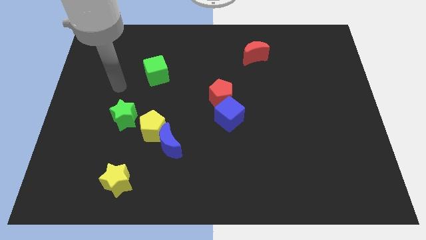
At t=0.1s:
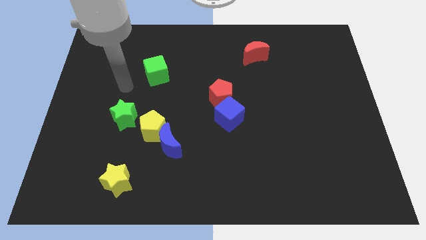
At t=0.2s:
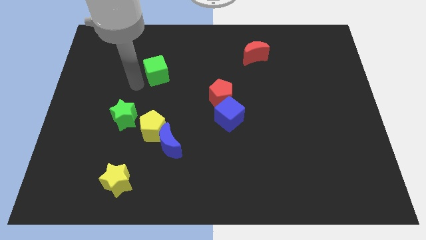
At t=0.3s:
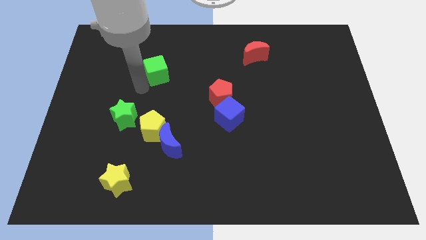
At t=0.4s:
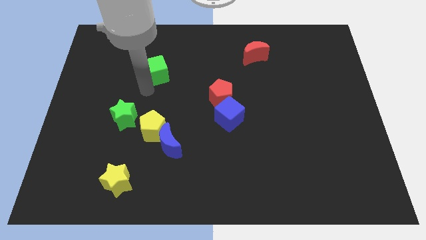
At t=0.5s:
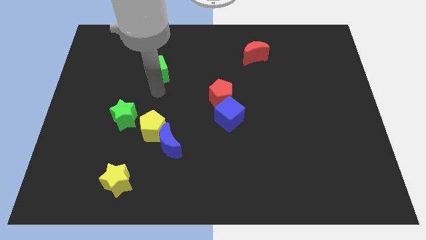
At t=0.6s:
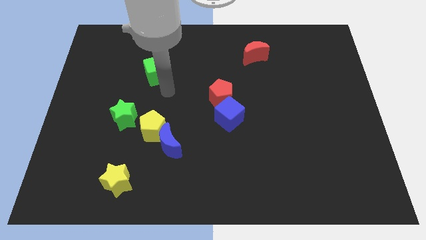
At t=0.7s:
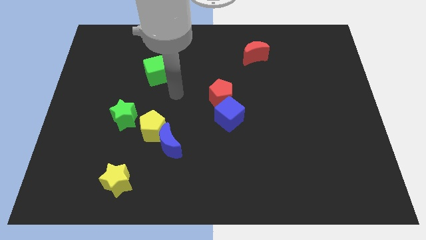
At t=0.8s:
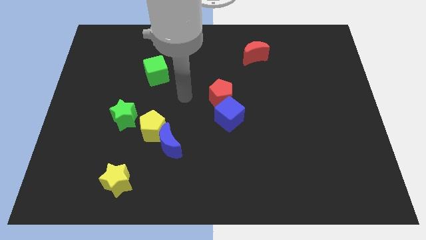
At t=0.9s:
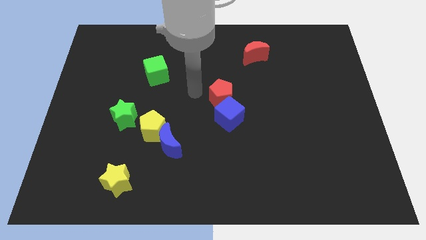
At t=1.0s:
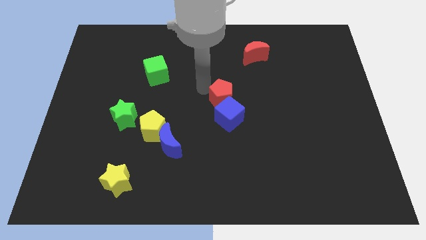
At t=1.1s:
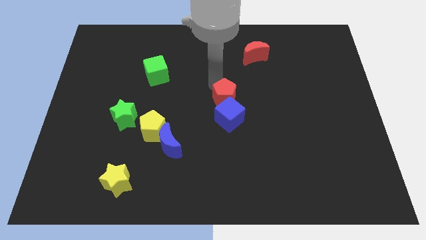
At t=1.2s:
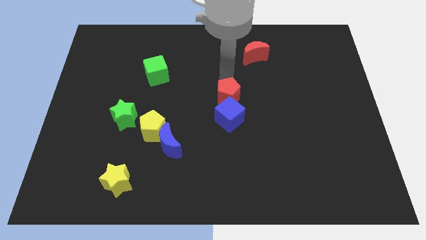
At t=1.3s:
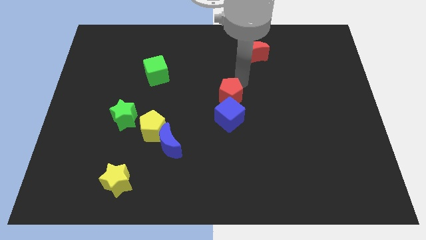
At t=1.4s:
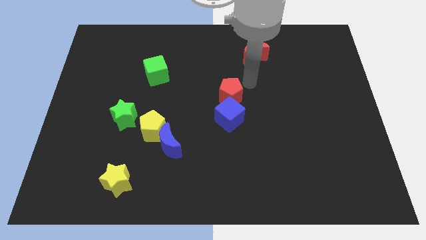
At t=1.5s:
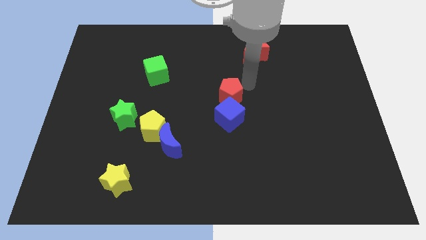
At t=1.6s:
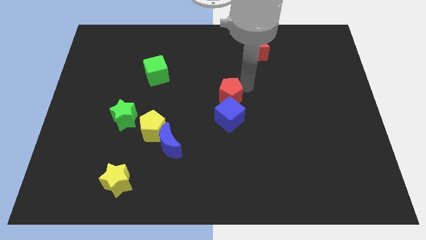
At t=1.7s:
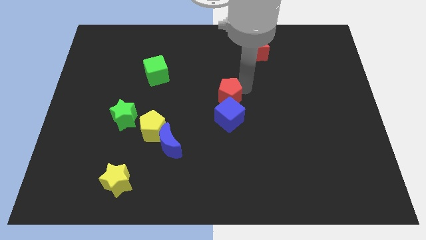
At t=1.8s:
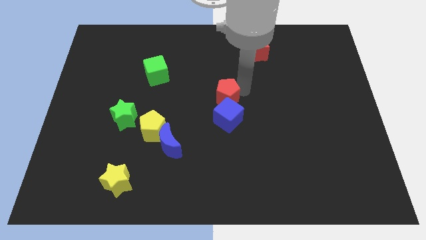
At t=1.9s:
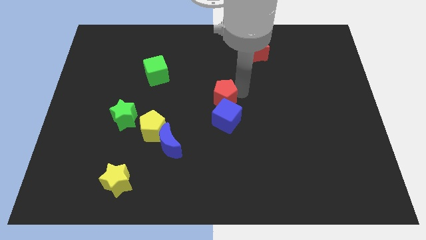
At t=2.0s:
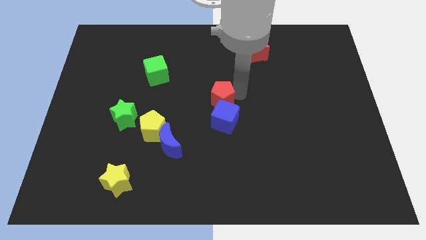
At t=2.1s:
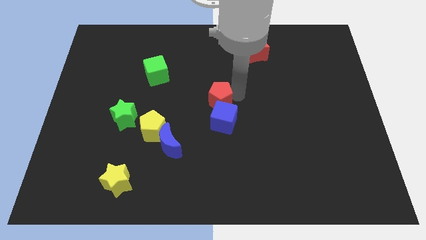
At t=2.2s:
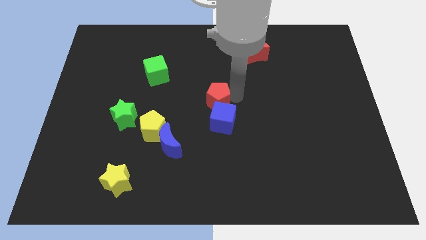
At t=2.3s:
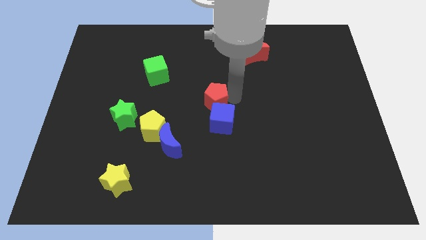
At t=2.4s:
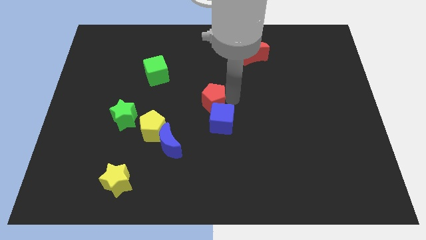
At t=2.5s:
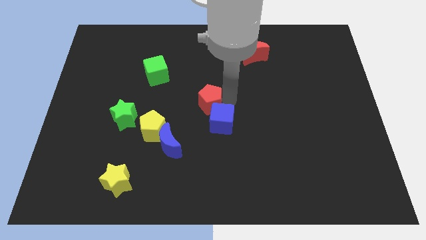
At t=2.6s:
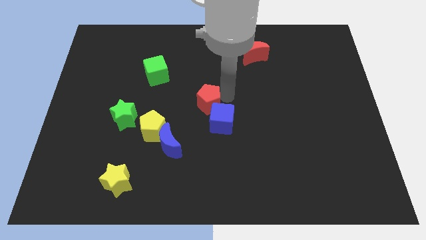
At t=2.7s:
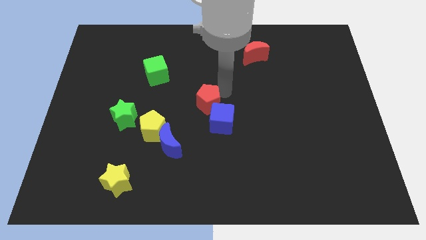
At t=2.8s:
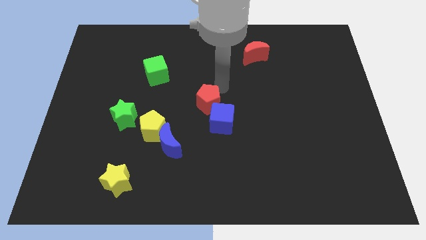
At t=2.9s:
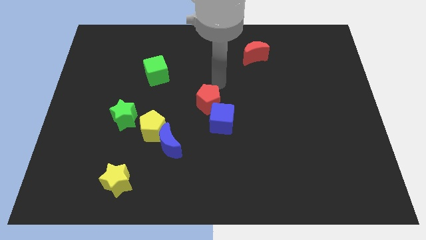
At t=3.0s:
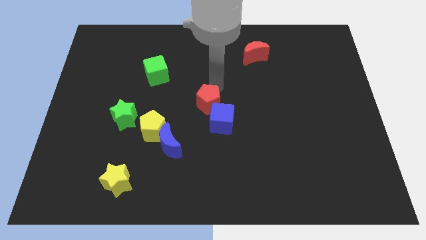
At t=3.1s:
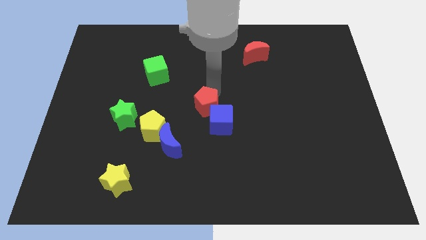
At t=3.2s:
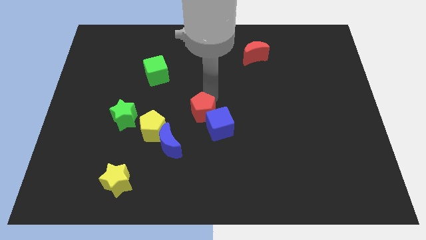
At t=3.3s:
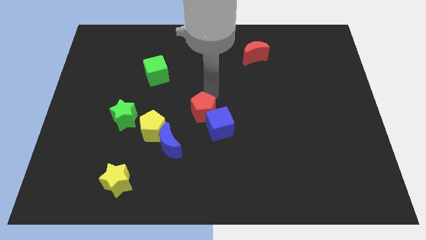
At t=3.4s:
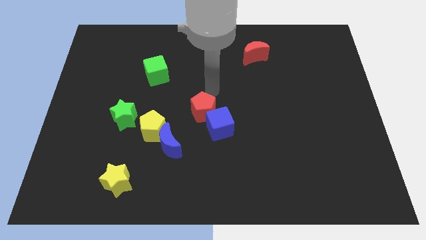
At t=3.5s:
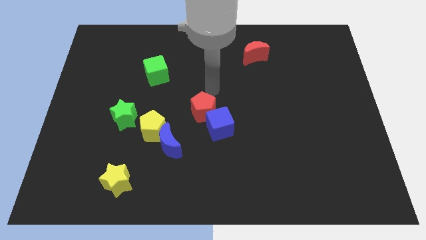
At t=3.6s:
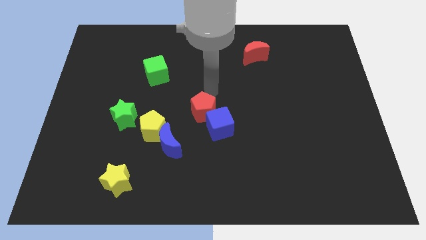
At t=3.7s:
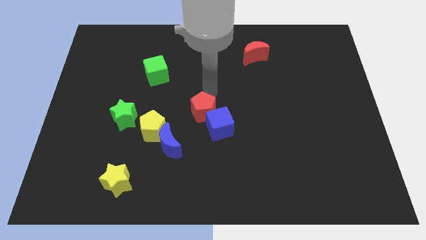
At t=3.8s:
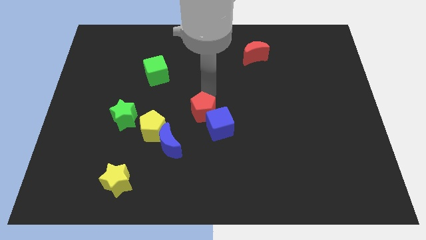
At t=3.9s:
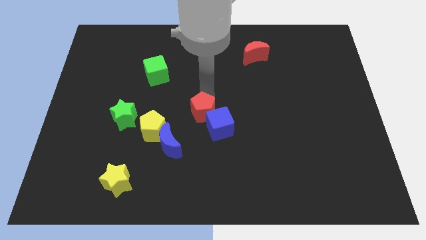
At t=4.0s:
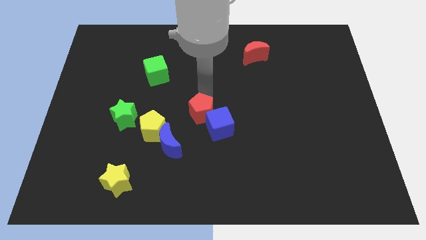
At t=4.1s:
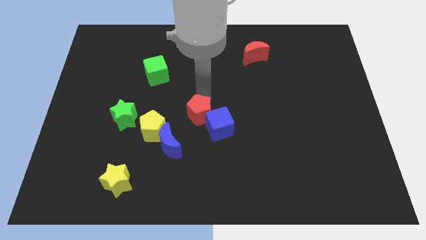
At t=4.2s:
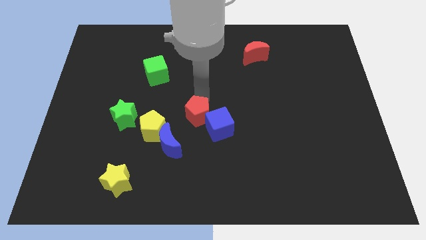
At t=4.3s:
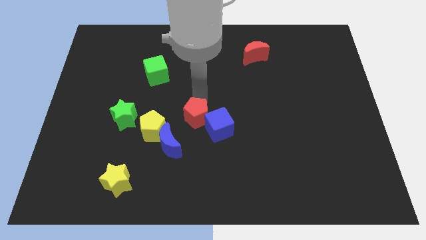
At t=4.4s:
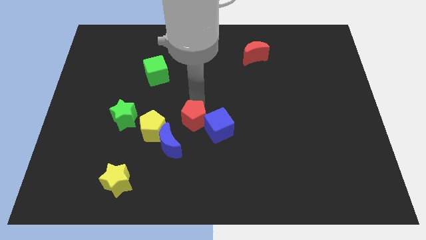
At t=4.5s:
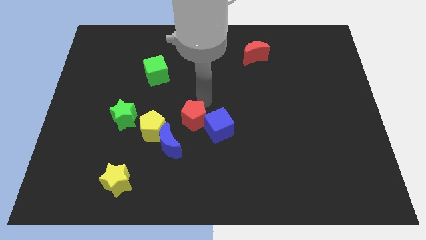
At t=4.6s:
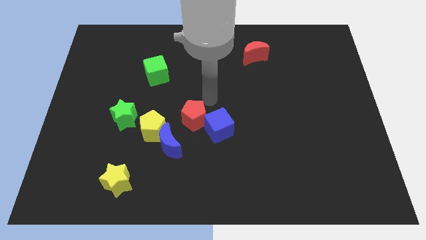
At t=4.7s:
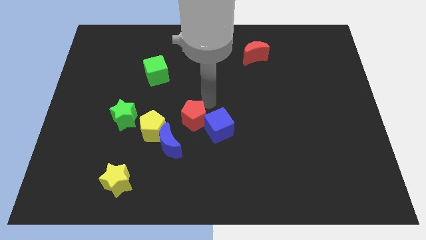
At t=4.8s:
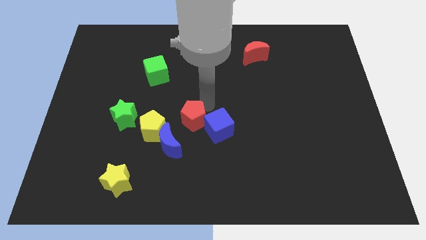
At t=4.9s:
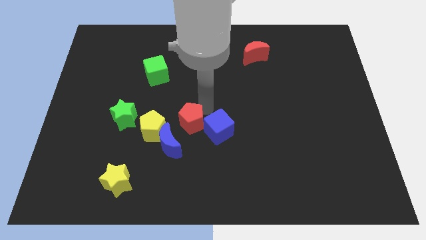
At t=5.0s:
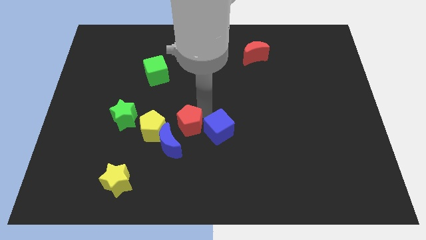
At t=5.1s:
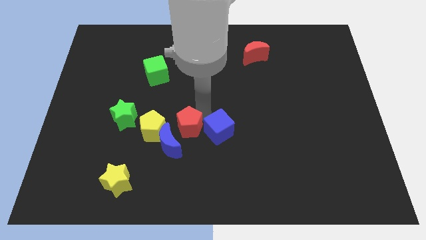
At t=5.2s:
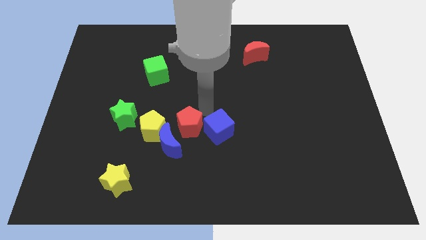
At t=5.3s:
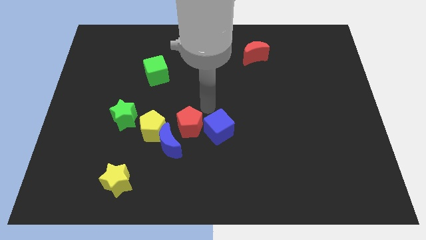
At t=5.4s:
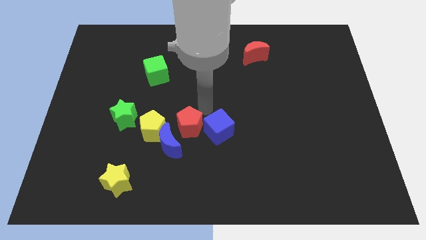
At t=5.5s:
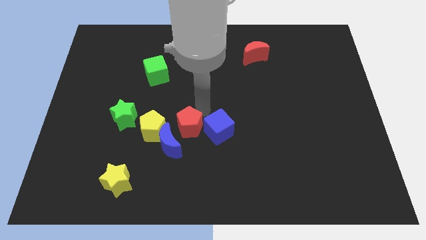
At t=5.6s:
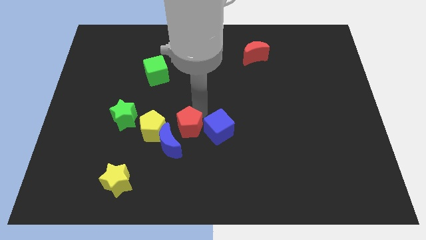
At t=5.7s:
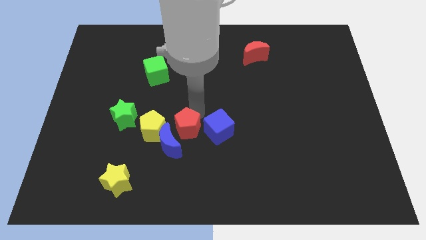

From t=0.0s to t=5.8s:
put the red pentagon next to the blue moon

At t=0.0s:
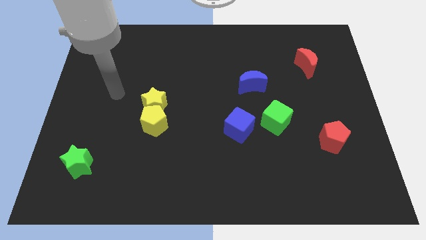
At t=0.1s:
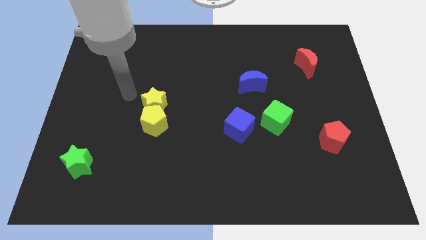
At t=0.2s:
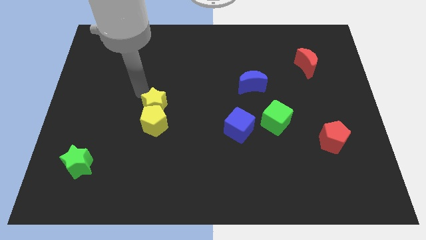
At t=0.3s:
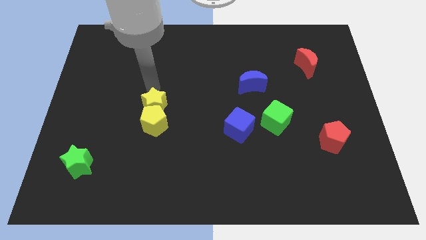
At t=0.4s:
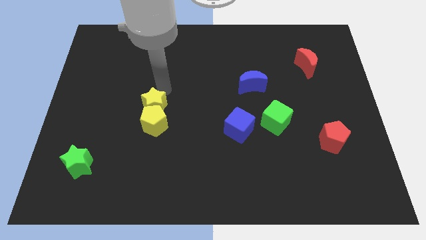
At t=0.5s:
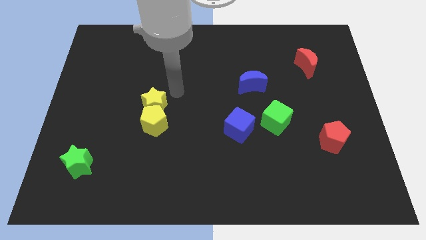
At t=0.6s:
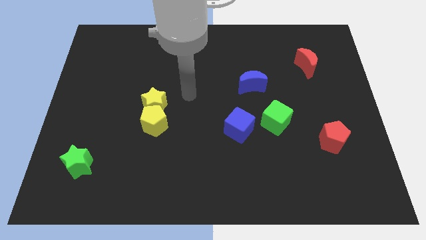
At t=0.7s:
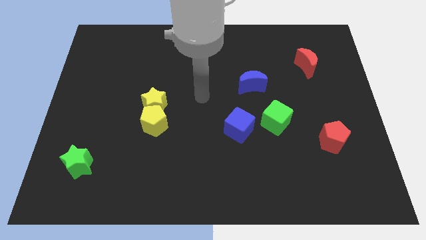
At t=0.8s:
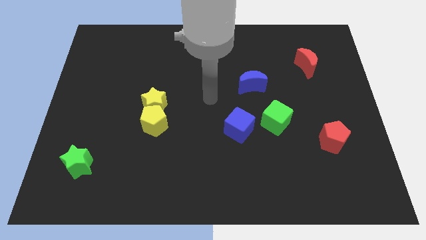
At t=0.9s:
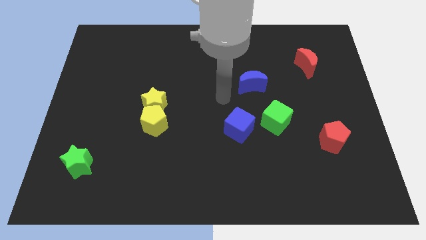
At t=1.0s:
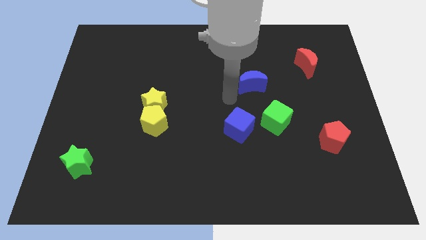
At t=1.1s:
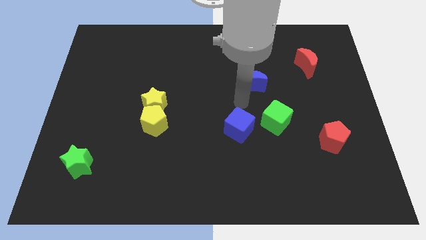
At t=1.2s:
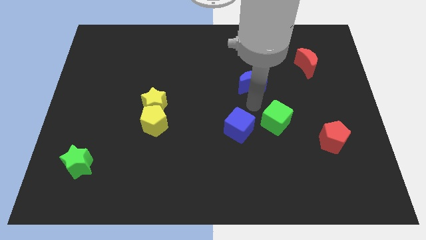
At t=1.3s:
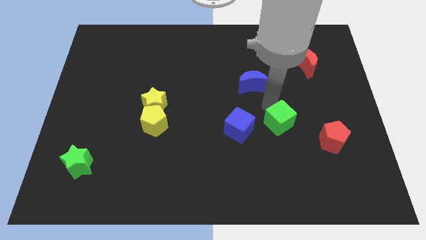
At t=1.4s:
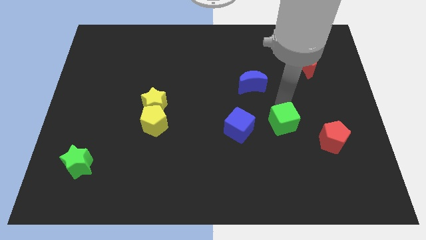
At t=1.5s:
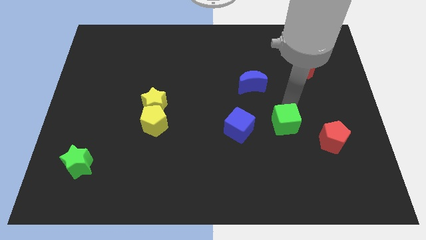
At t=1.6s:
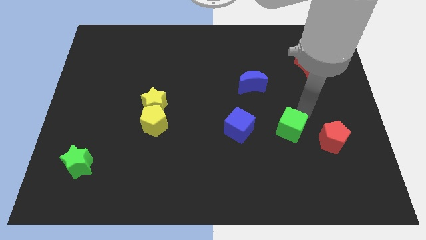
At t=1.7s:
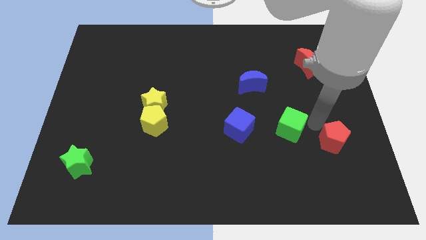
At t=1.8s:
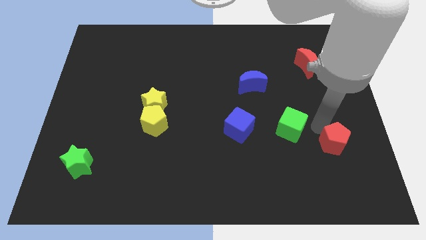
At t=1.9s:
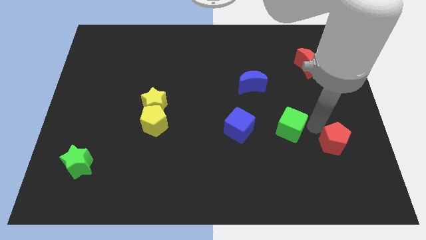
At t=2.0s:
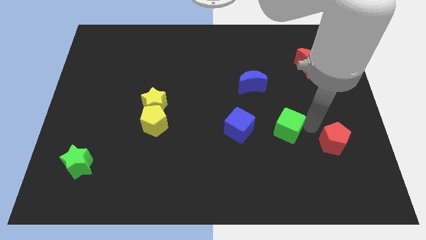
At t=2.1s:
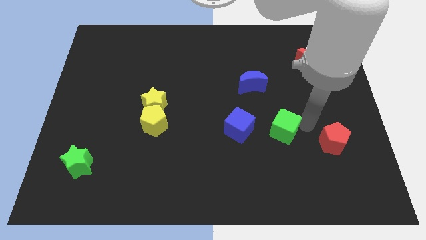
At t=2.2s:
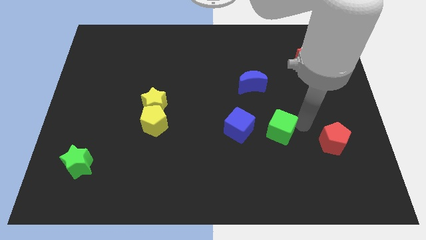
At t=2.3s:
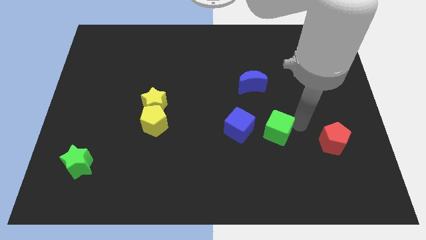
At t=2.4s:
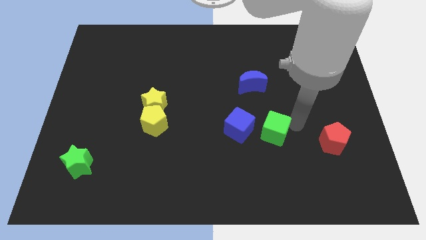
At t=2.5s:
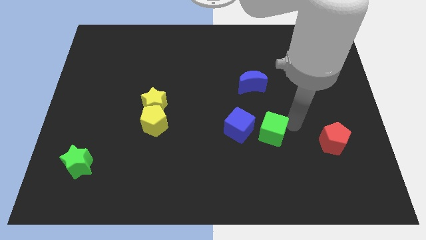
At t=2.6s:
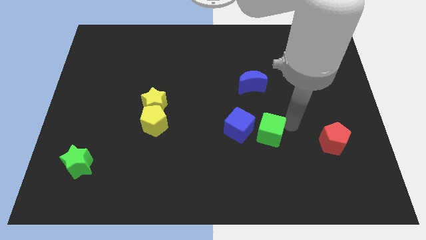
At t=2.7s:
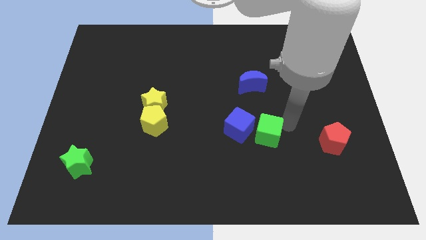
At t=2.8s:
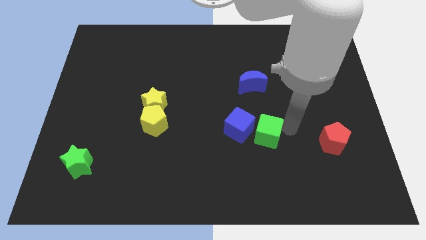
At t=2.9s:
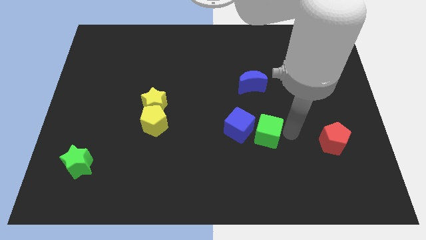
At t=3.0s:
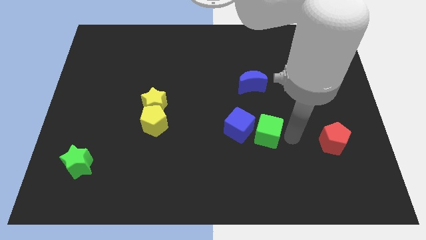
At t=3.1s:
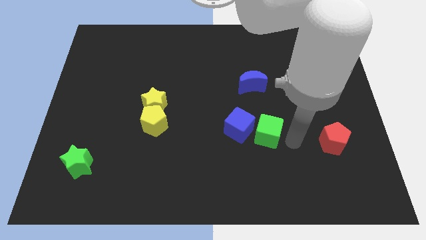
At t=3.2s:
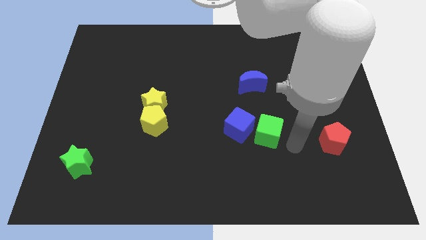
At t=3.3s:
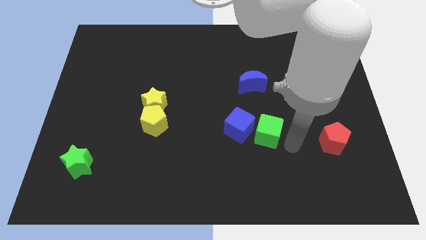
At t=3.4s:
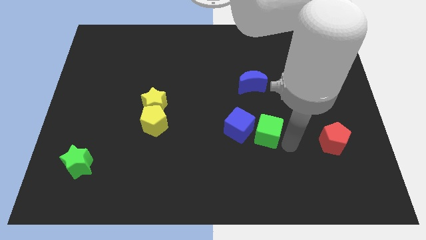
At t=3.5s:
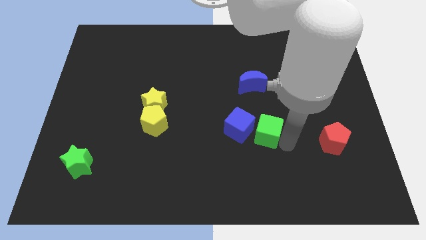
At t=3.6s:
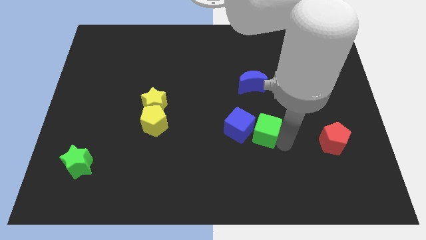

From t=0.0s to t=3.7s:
slide the green cube towards the blue cube
